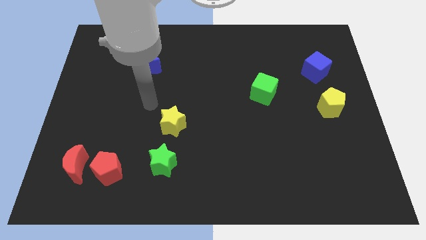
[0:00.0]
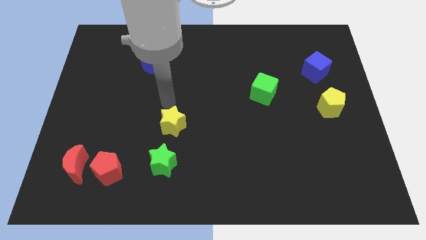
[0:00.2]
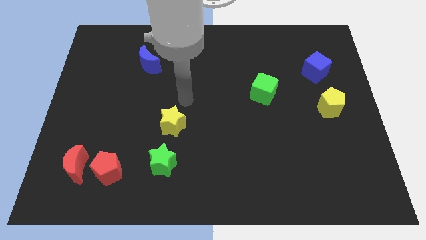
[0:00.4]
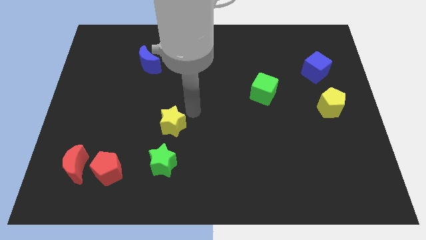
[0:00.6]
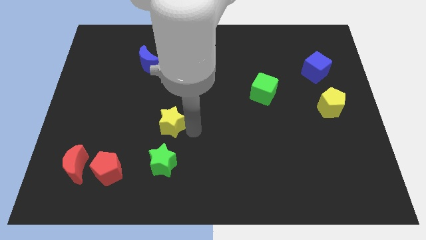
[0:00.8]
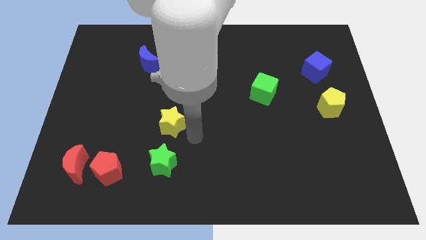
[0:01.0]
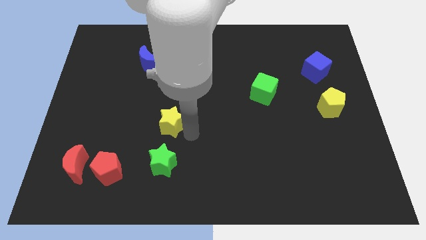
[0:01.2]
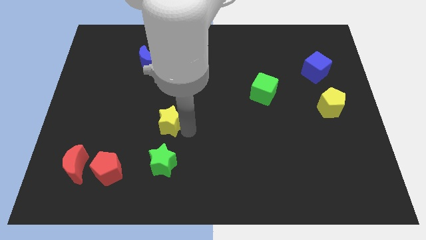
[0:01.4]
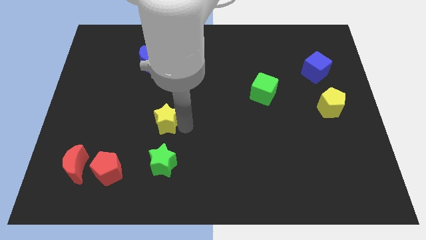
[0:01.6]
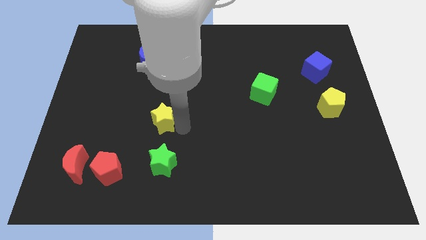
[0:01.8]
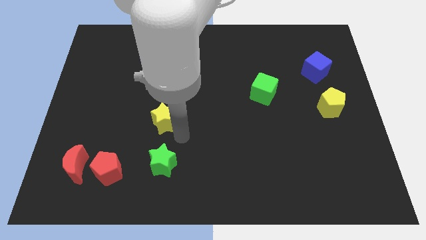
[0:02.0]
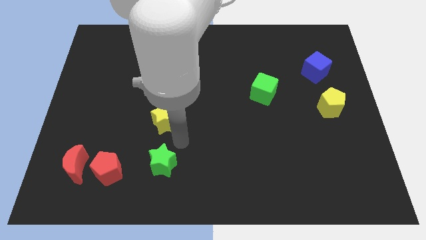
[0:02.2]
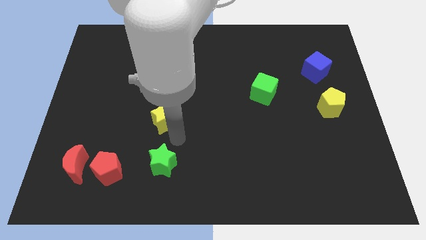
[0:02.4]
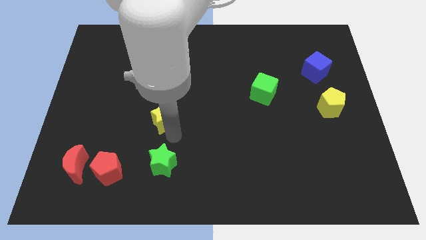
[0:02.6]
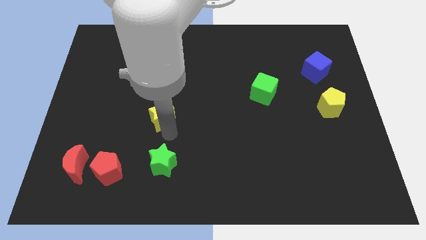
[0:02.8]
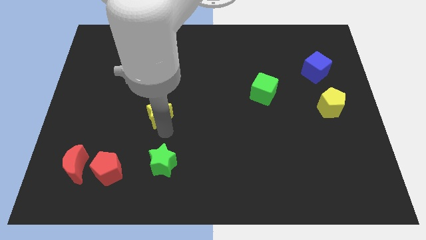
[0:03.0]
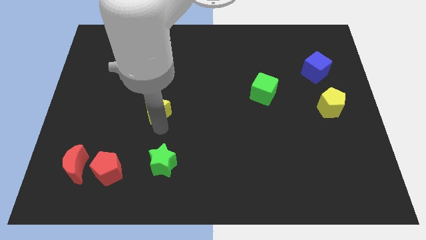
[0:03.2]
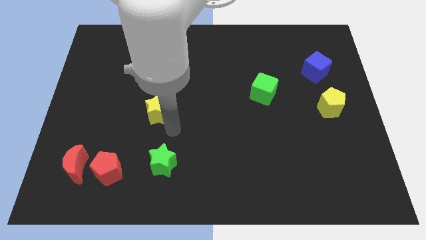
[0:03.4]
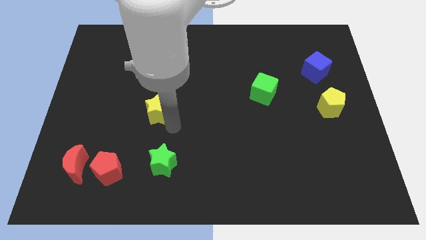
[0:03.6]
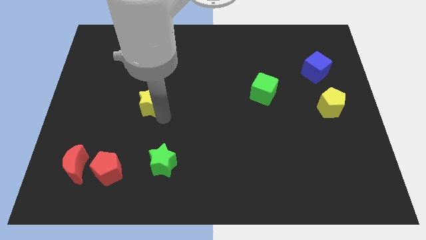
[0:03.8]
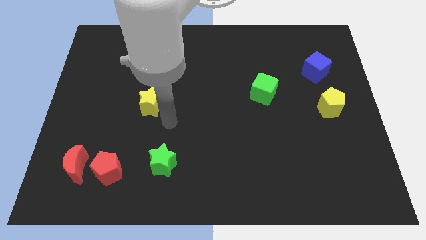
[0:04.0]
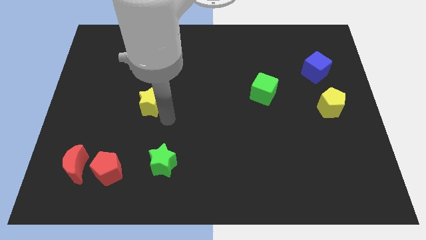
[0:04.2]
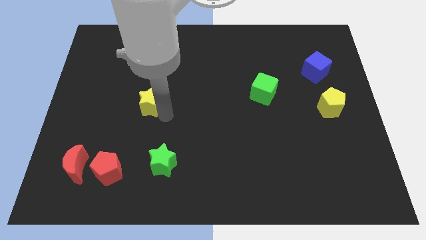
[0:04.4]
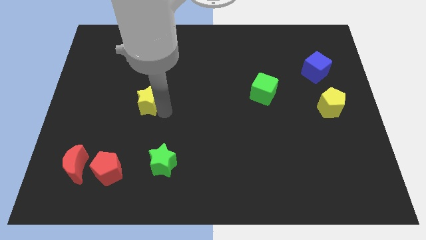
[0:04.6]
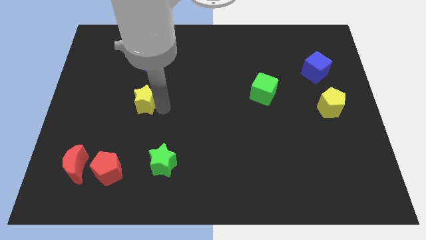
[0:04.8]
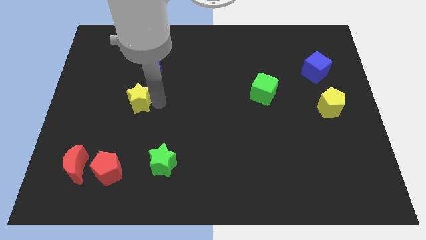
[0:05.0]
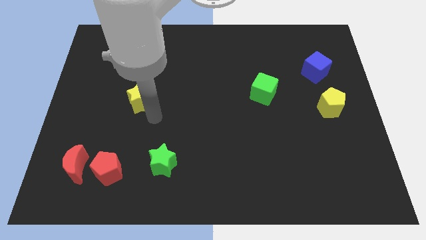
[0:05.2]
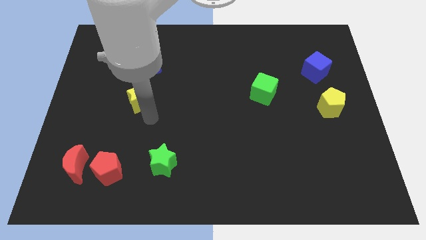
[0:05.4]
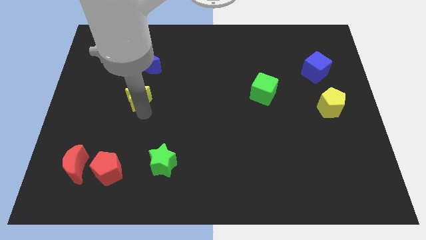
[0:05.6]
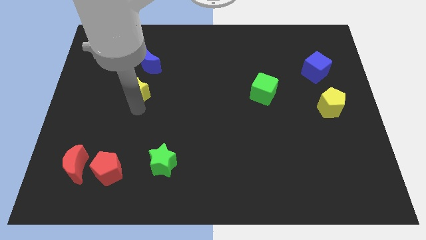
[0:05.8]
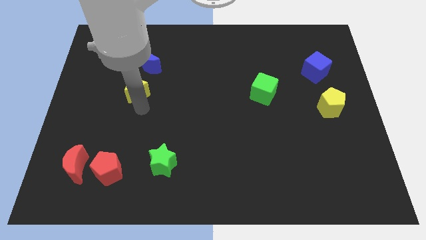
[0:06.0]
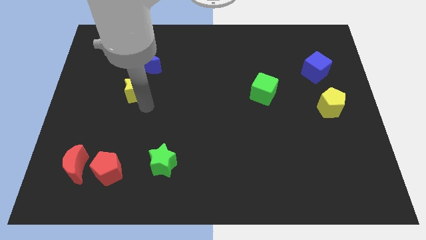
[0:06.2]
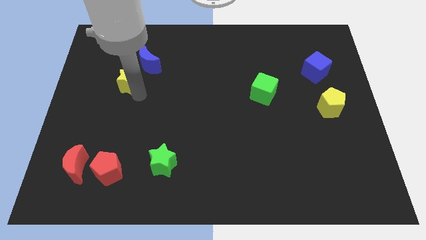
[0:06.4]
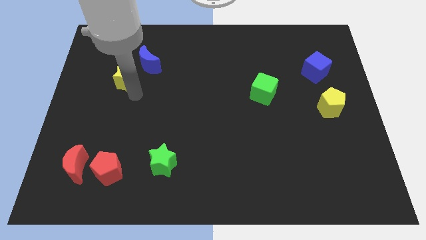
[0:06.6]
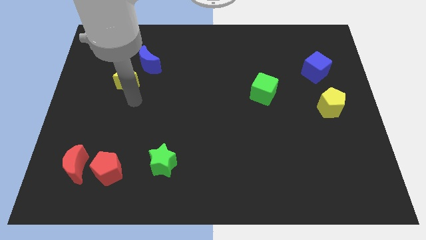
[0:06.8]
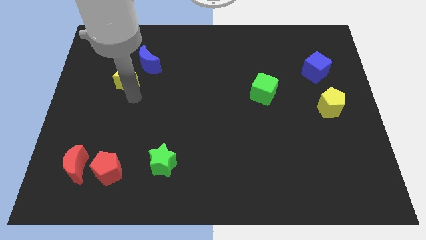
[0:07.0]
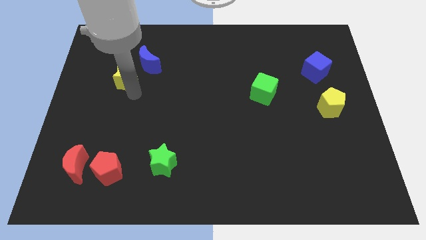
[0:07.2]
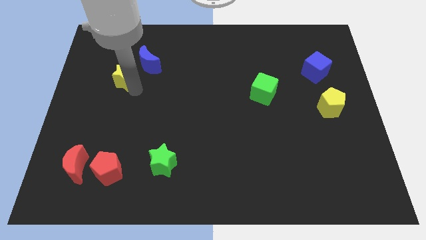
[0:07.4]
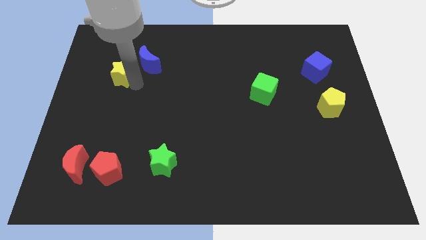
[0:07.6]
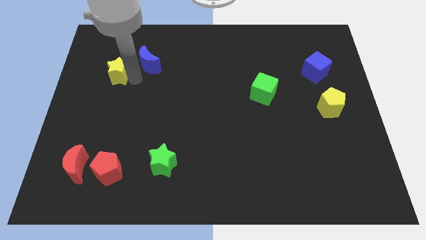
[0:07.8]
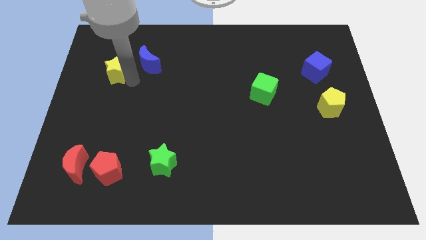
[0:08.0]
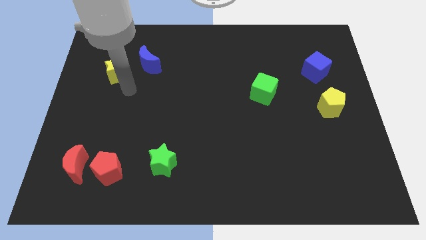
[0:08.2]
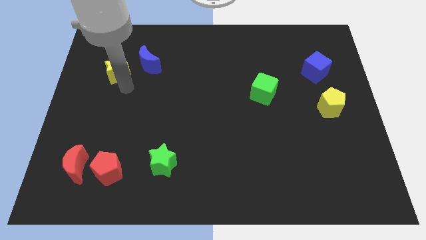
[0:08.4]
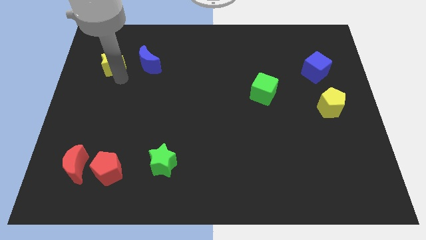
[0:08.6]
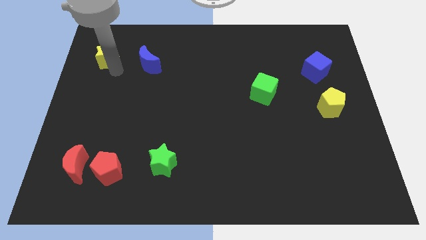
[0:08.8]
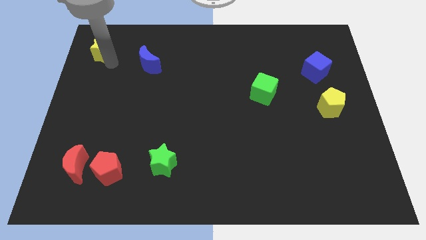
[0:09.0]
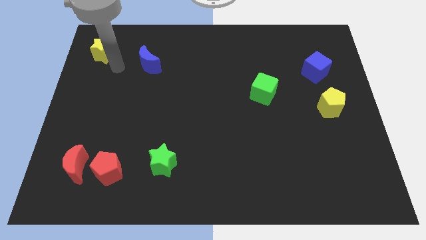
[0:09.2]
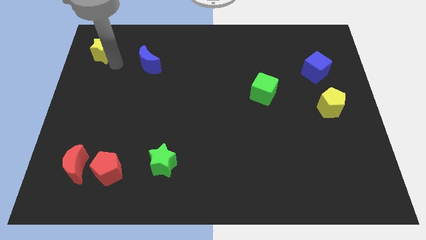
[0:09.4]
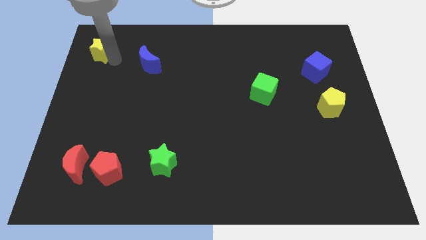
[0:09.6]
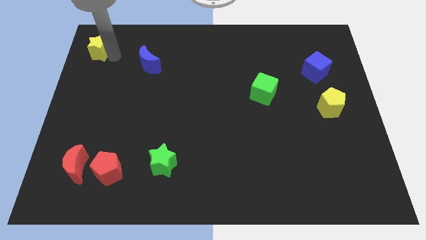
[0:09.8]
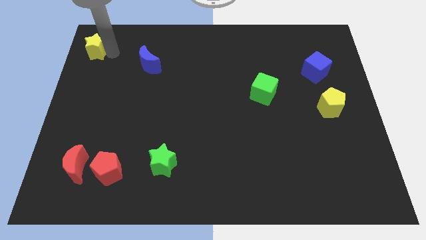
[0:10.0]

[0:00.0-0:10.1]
push the yellow star to the top left of the board

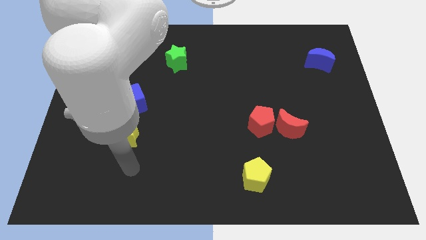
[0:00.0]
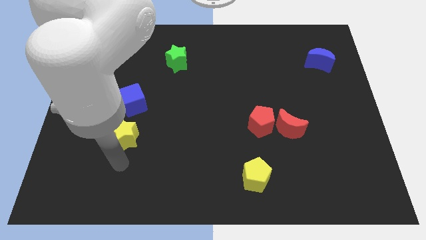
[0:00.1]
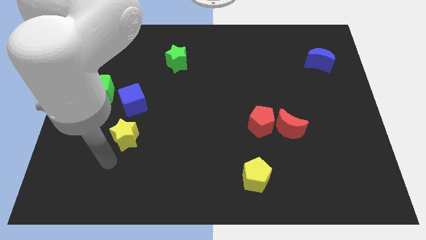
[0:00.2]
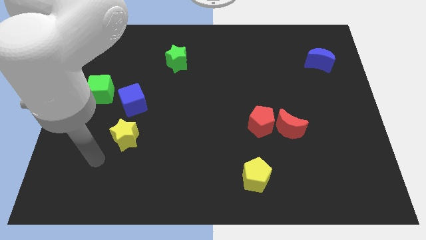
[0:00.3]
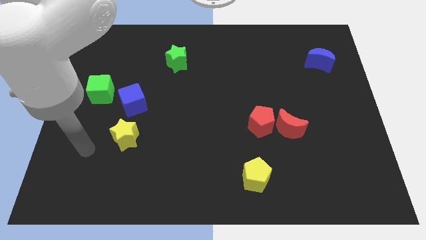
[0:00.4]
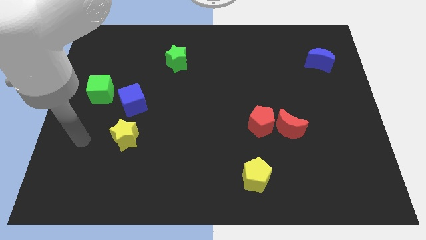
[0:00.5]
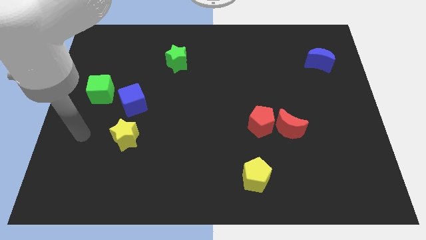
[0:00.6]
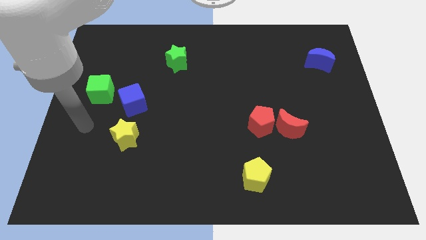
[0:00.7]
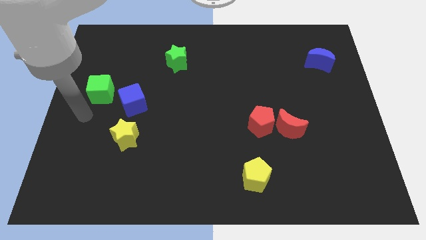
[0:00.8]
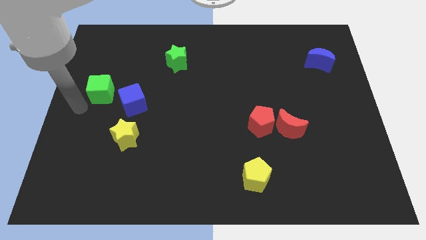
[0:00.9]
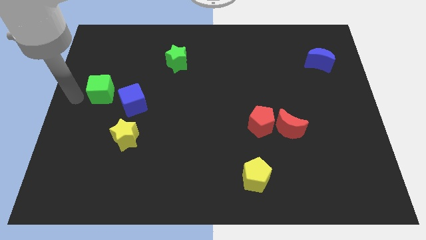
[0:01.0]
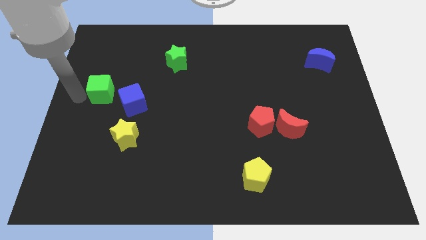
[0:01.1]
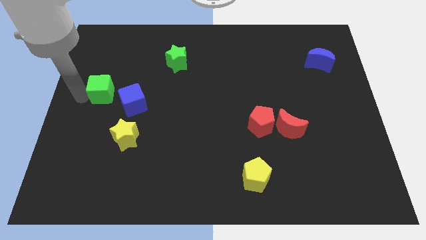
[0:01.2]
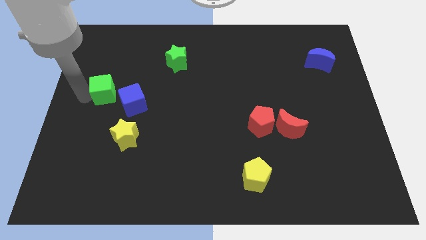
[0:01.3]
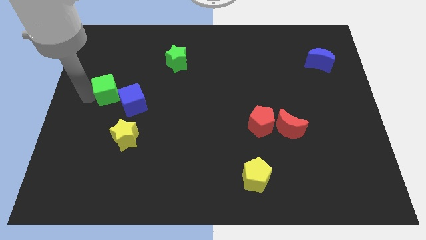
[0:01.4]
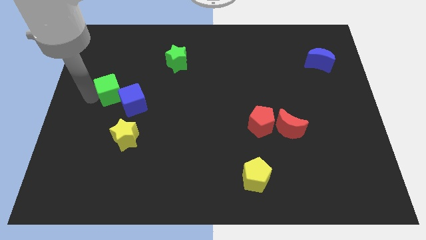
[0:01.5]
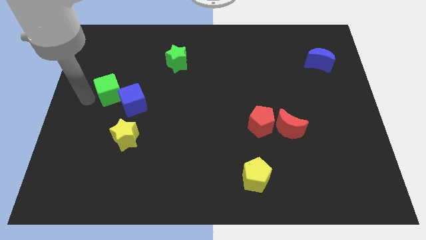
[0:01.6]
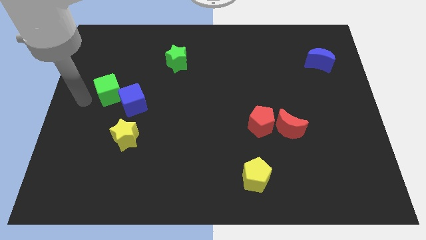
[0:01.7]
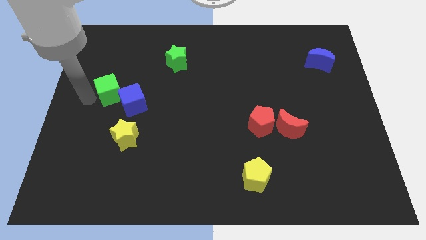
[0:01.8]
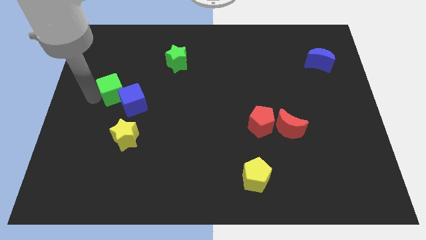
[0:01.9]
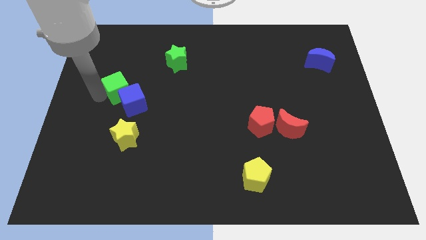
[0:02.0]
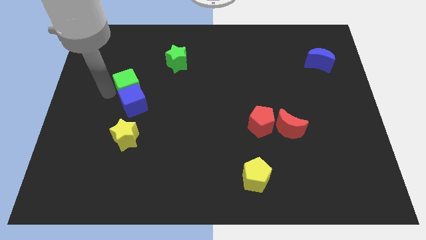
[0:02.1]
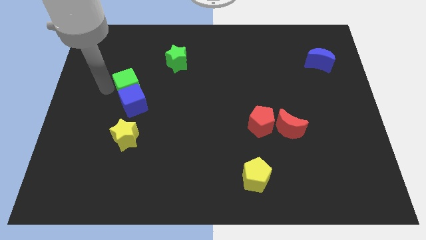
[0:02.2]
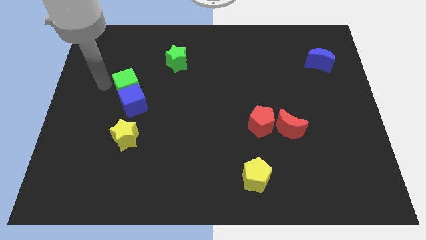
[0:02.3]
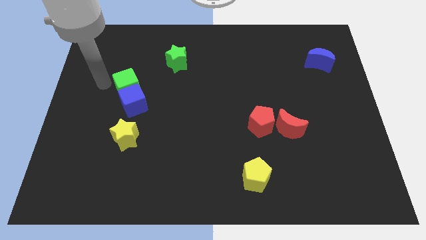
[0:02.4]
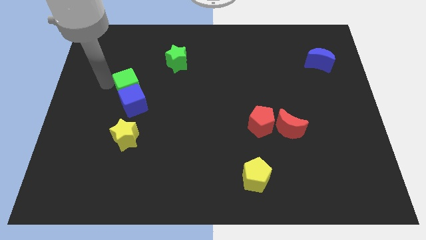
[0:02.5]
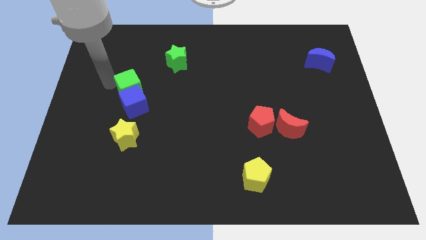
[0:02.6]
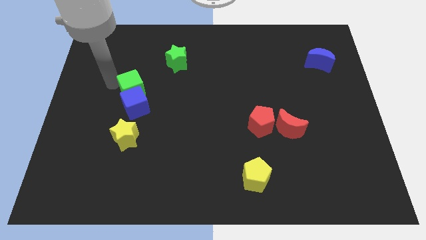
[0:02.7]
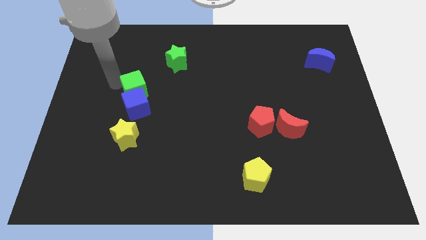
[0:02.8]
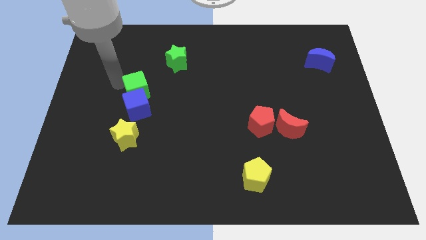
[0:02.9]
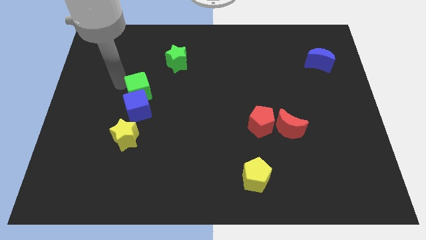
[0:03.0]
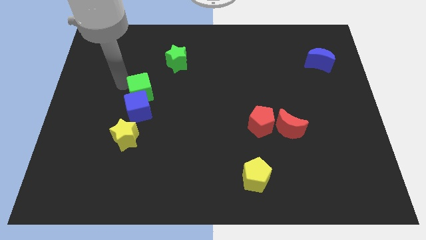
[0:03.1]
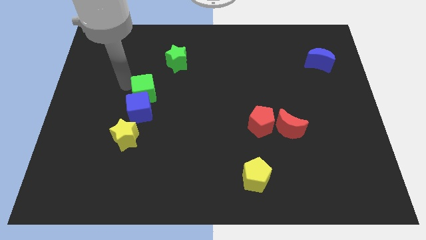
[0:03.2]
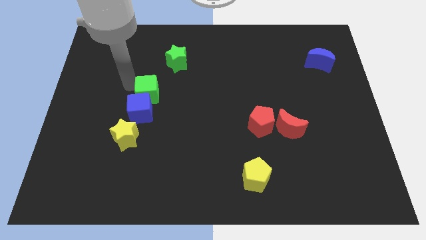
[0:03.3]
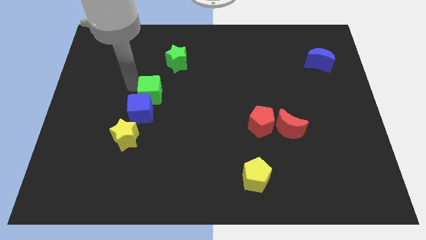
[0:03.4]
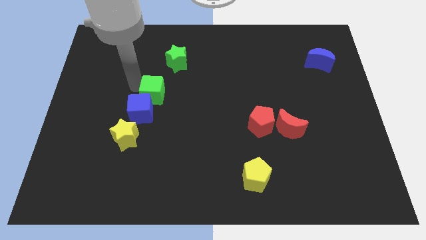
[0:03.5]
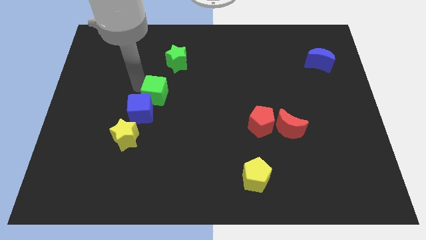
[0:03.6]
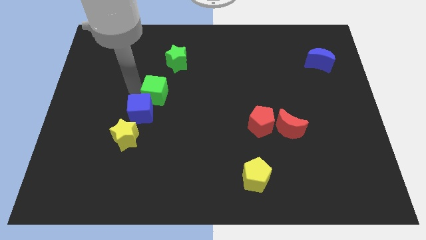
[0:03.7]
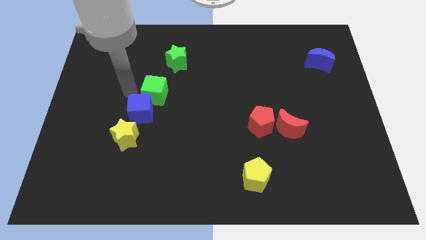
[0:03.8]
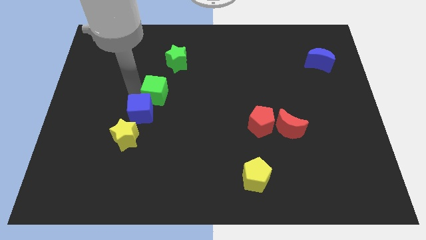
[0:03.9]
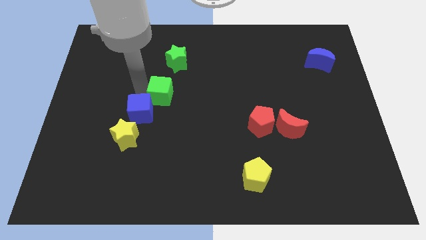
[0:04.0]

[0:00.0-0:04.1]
move the green cube to the center of the board
